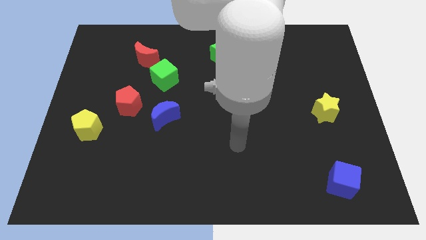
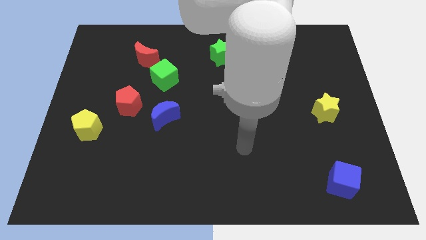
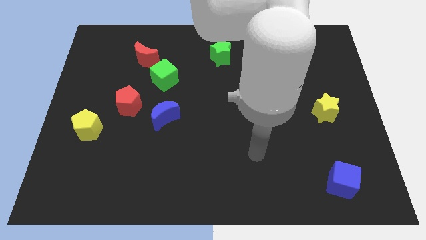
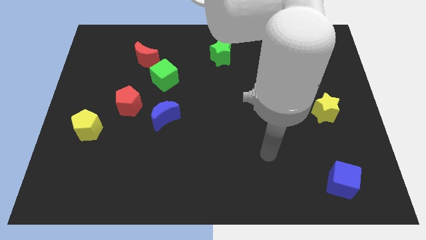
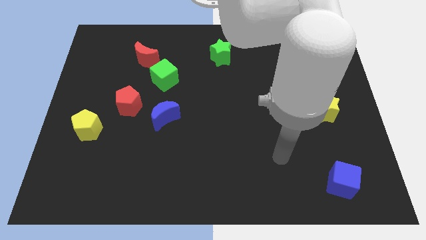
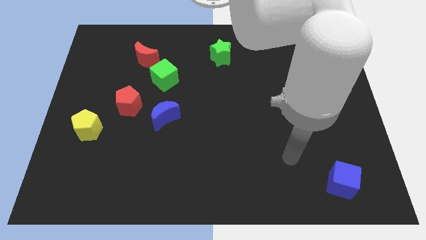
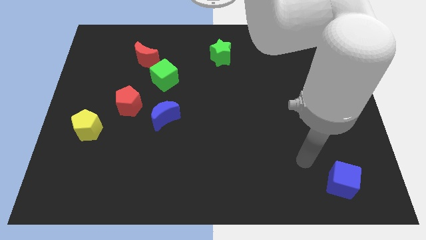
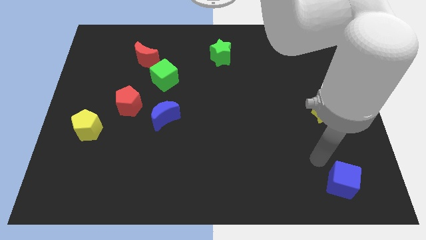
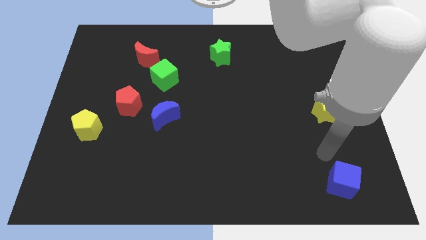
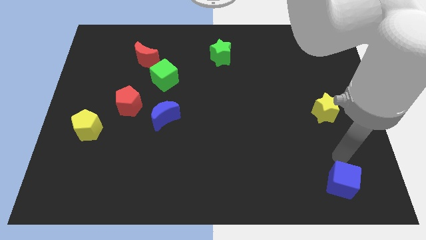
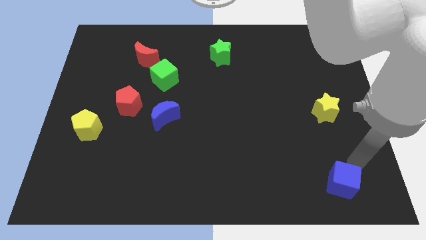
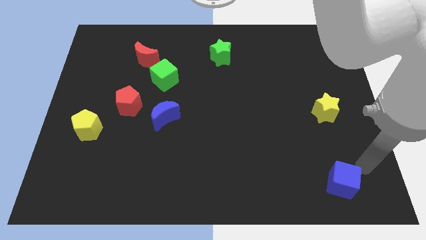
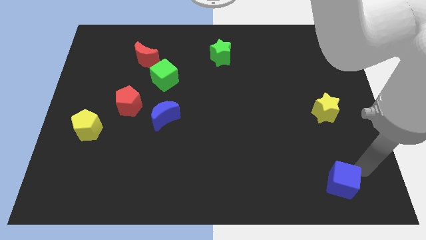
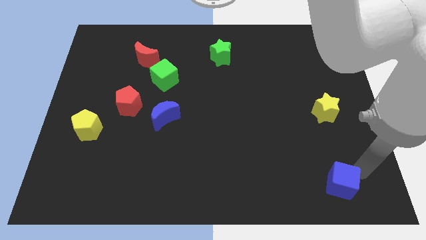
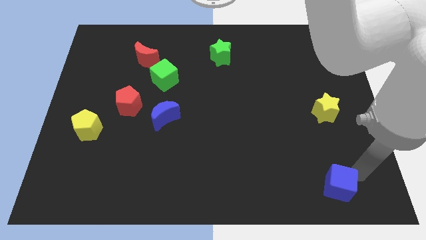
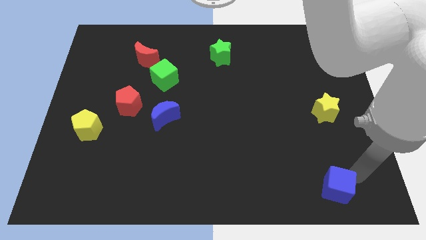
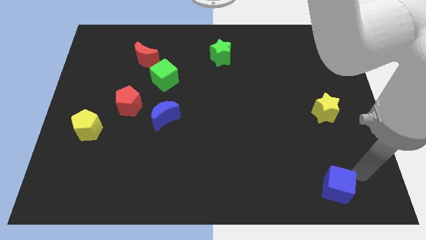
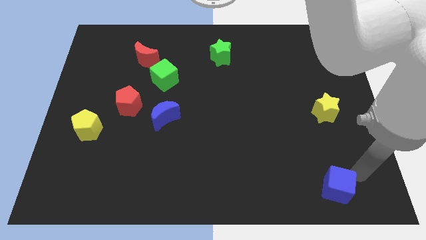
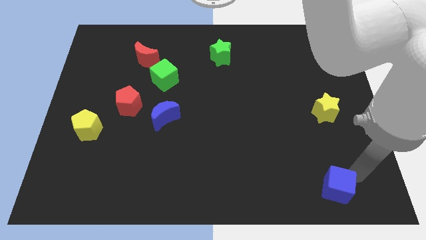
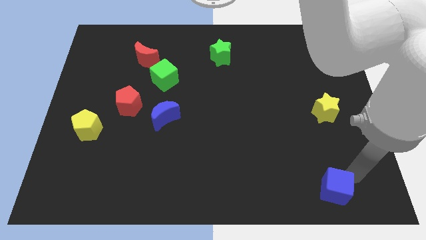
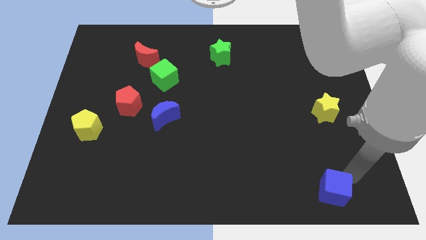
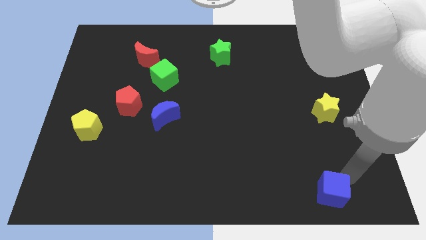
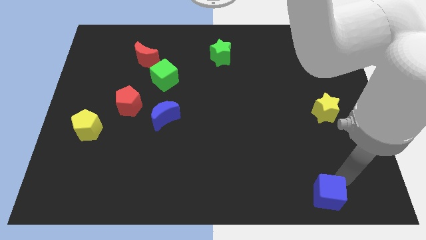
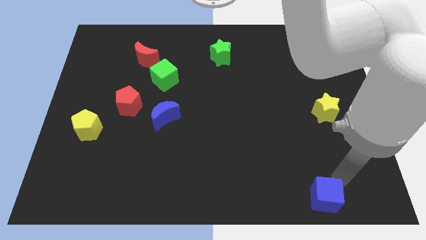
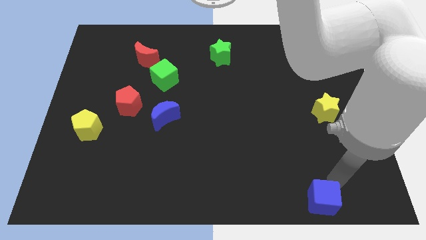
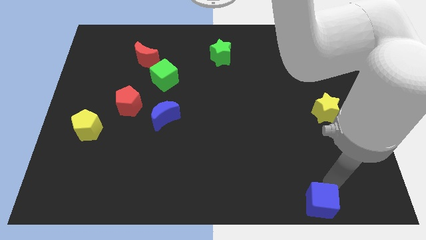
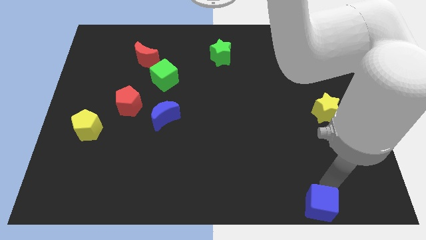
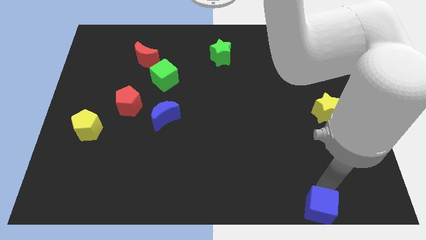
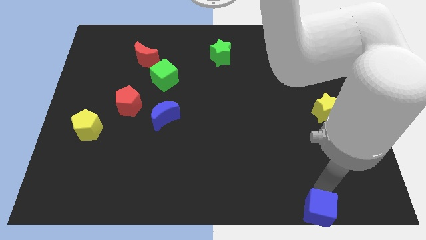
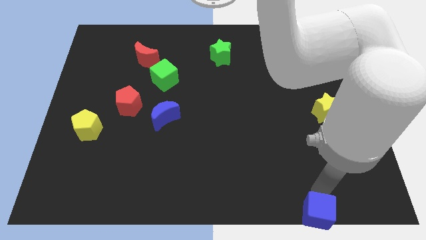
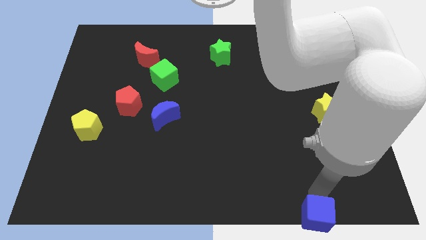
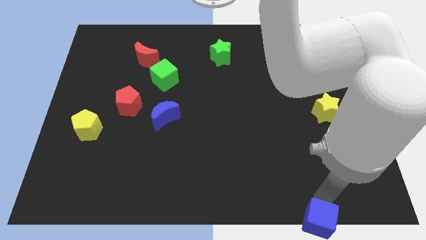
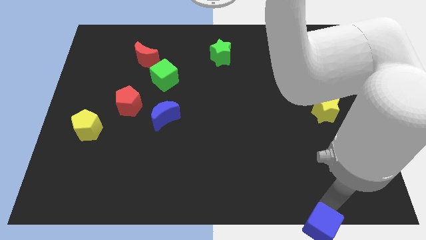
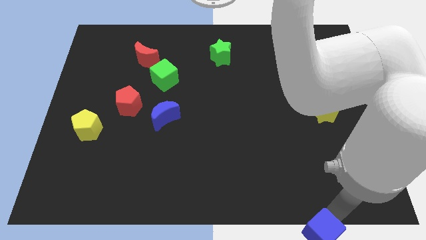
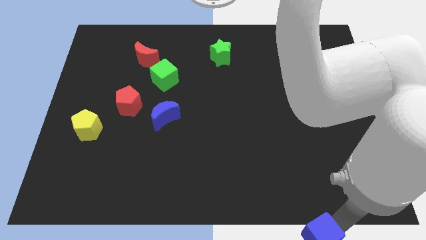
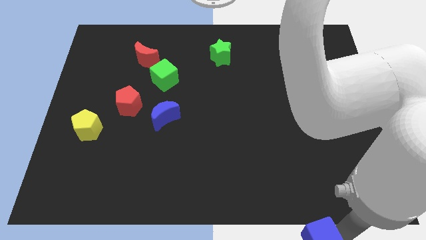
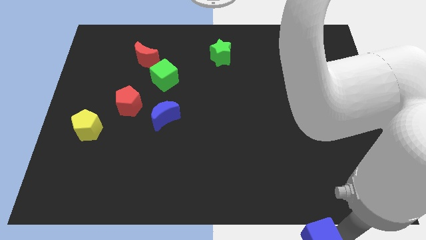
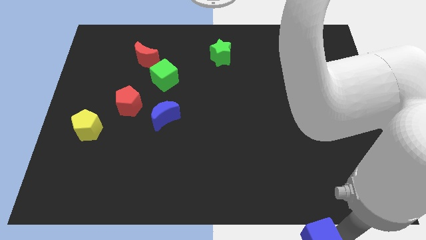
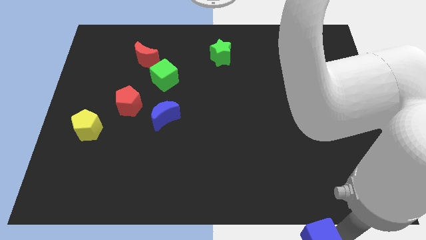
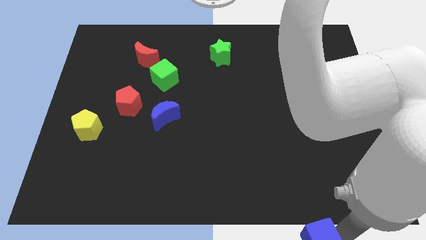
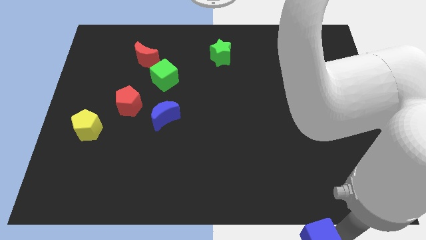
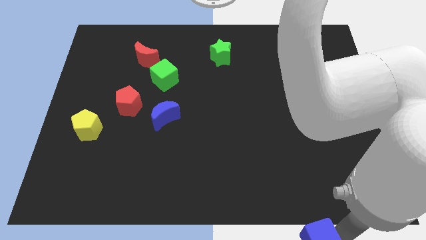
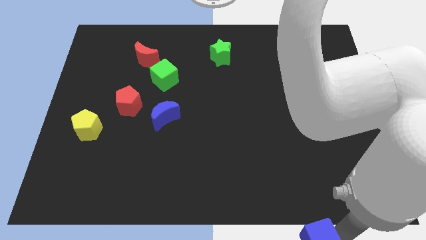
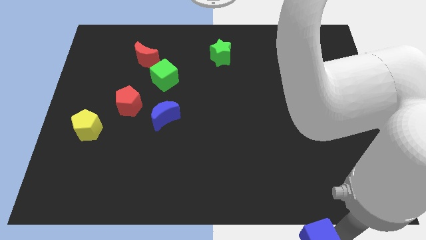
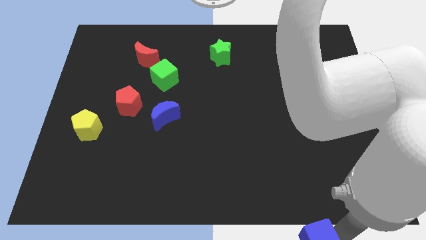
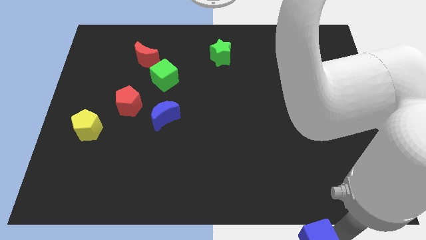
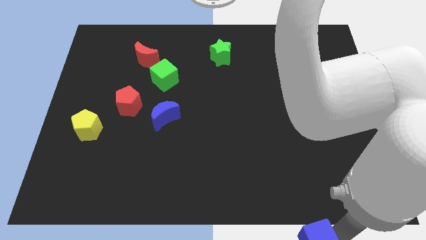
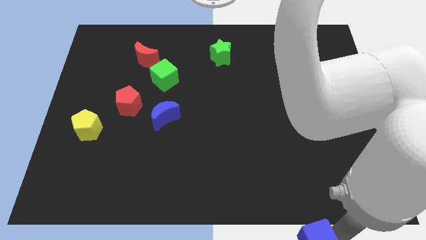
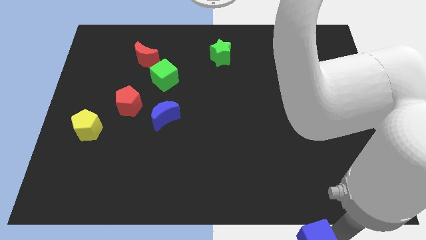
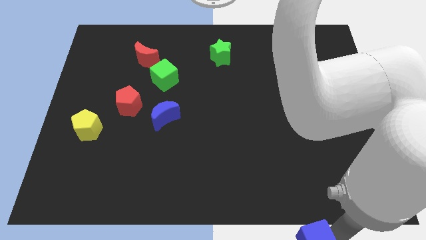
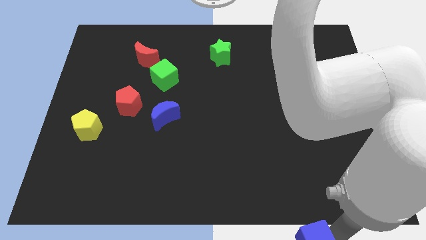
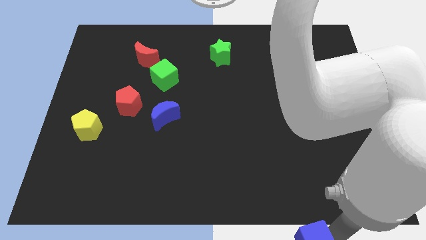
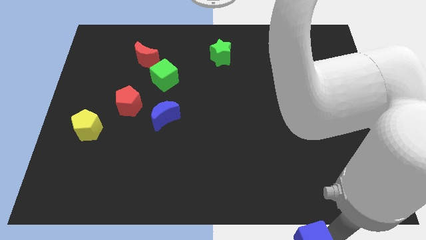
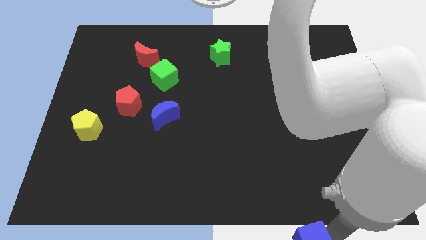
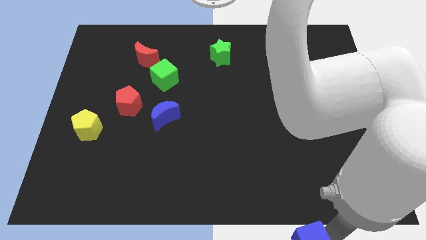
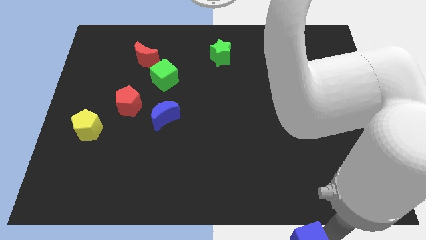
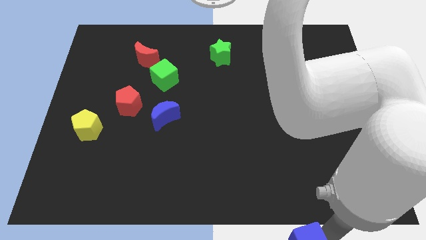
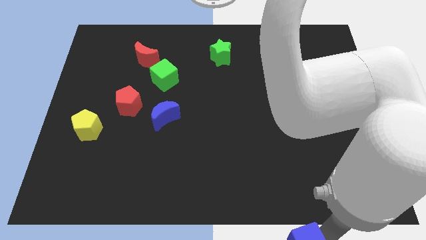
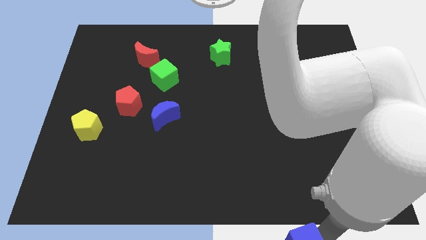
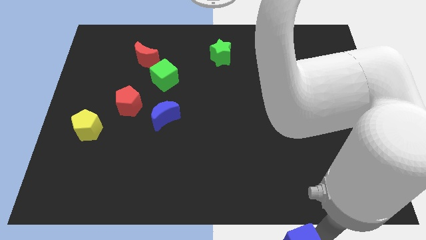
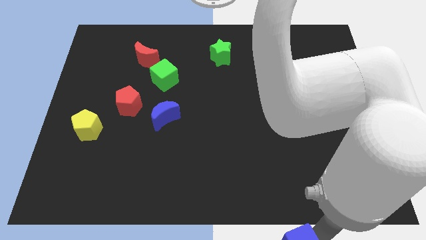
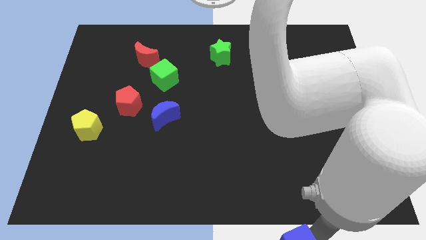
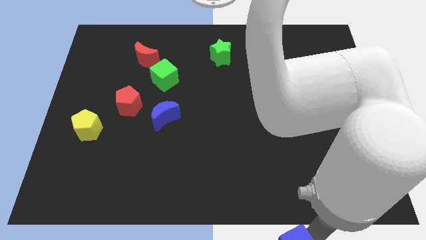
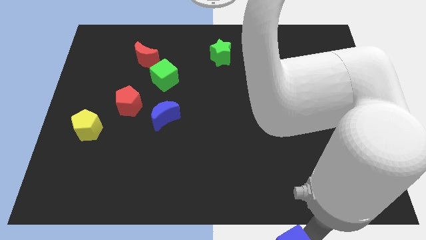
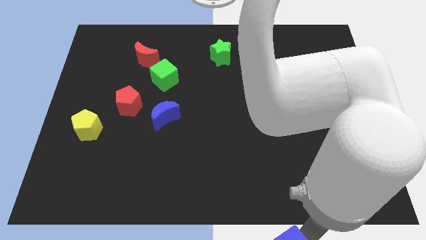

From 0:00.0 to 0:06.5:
push the blue cube to the bottom side
